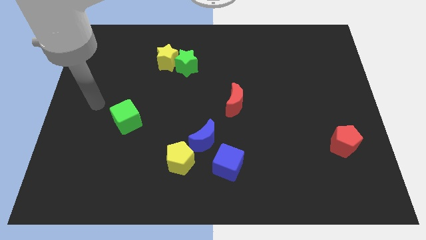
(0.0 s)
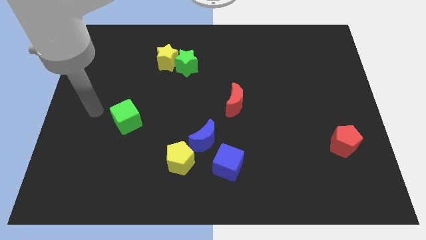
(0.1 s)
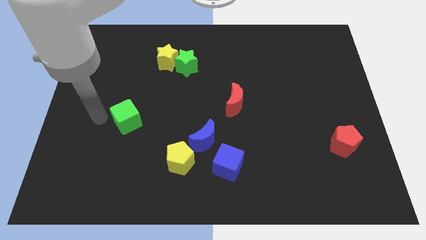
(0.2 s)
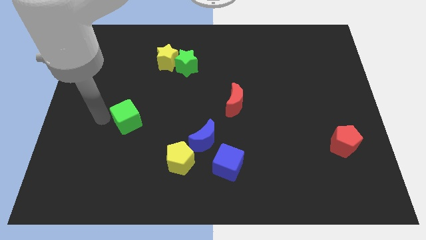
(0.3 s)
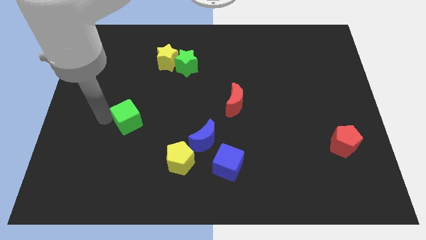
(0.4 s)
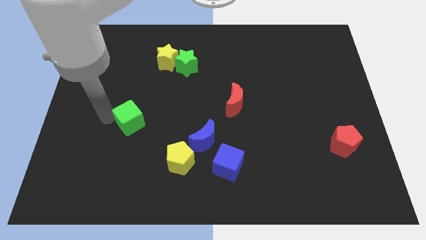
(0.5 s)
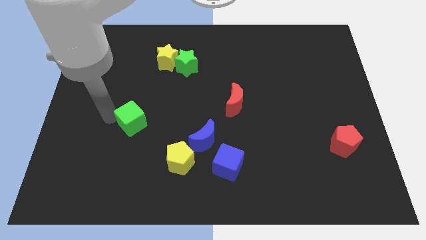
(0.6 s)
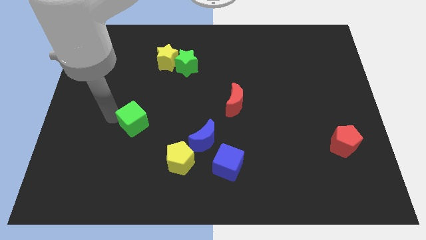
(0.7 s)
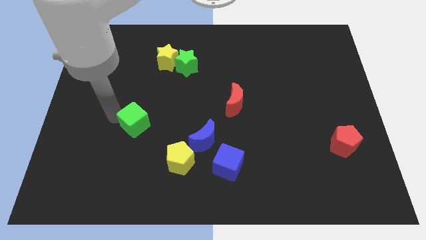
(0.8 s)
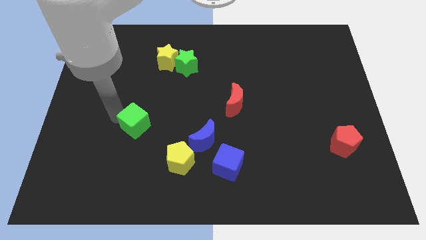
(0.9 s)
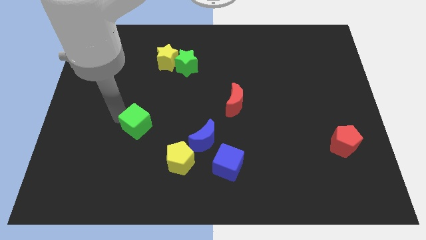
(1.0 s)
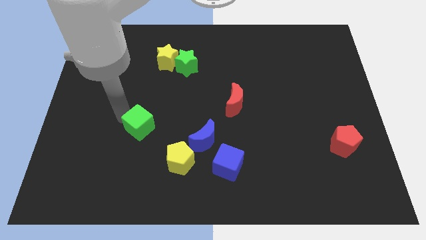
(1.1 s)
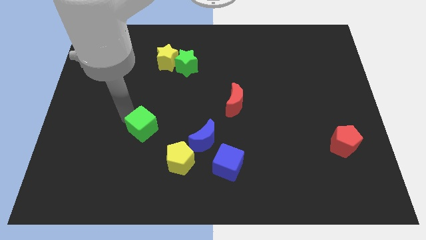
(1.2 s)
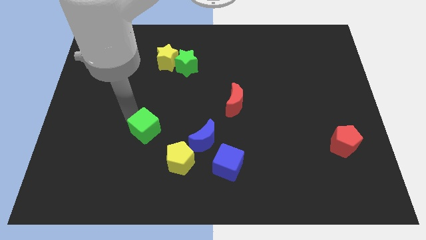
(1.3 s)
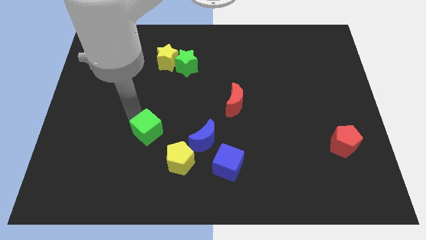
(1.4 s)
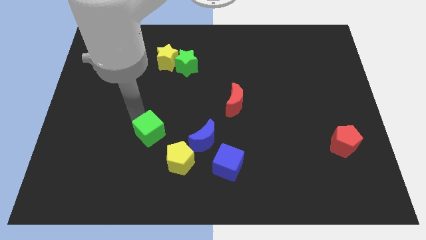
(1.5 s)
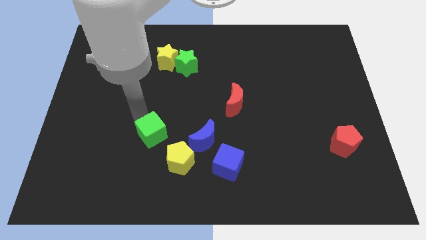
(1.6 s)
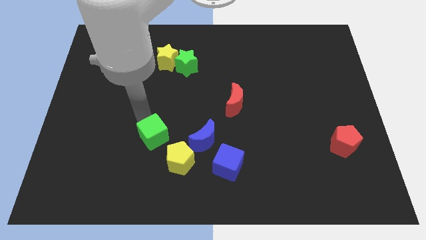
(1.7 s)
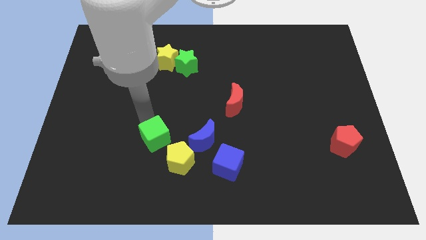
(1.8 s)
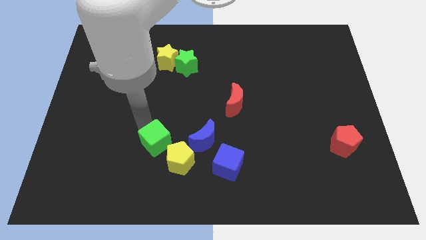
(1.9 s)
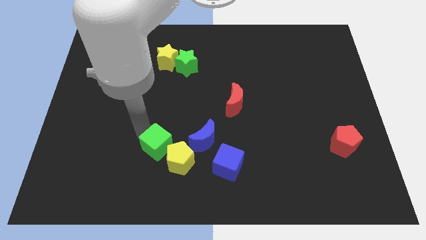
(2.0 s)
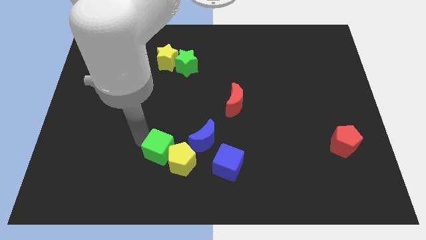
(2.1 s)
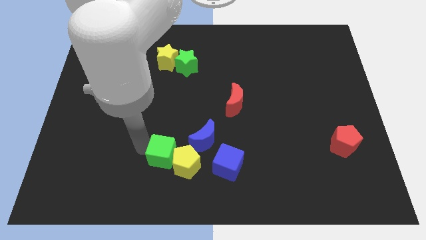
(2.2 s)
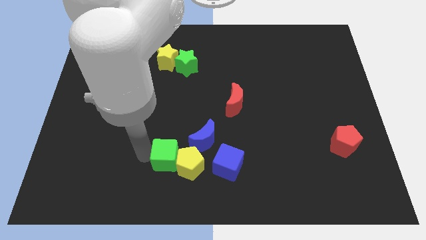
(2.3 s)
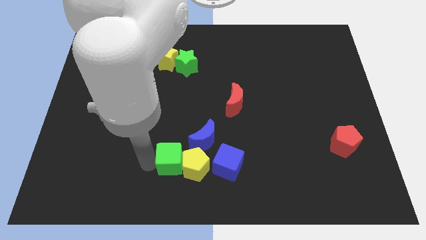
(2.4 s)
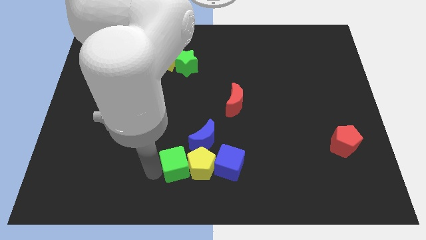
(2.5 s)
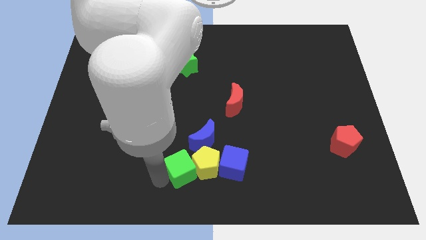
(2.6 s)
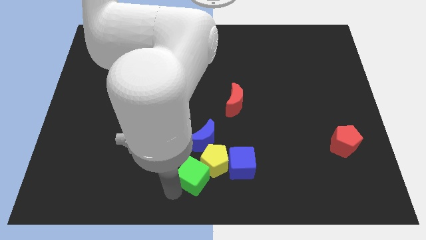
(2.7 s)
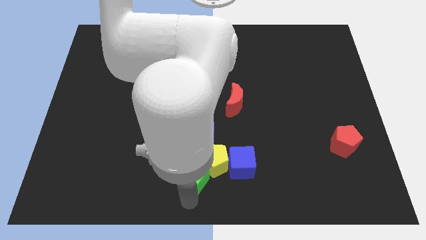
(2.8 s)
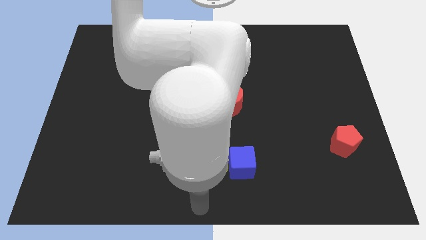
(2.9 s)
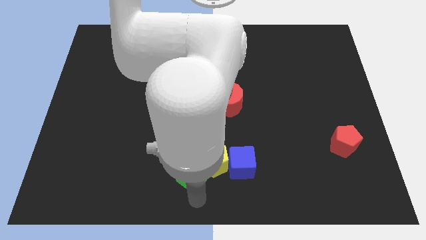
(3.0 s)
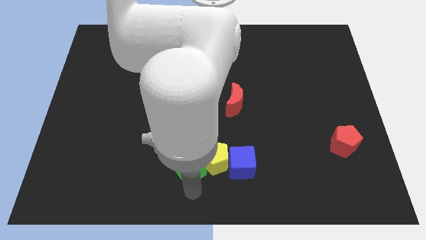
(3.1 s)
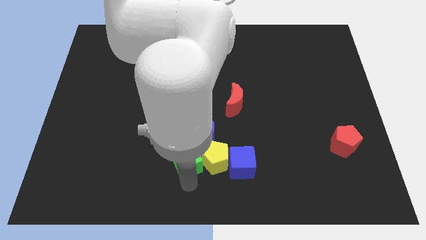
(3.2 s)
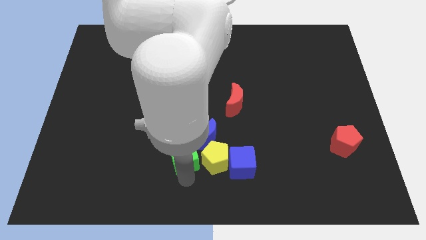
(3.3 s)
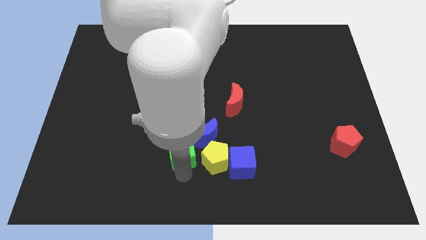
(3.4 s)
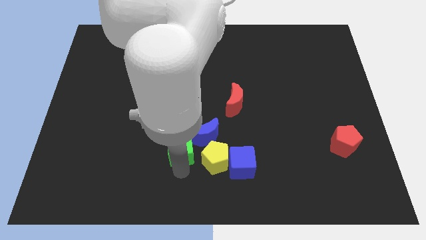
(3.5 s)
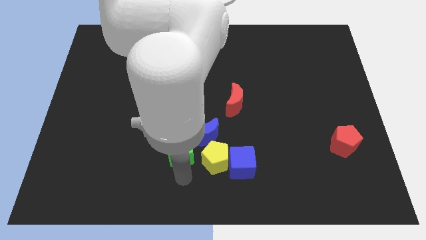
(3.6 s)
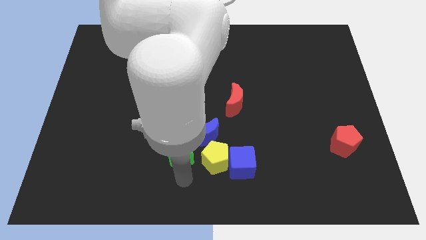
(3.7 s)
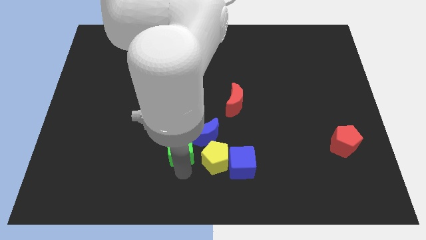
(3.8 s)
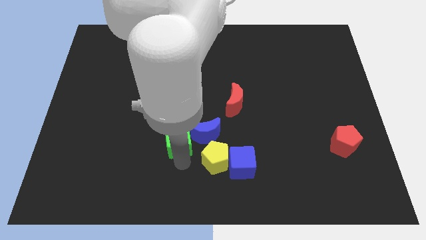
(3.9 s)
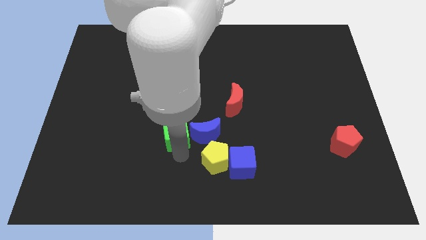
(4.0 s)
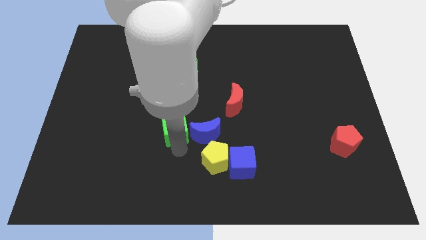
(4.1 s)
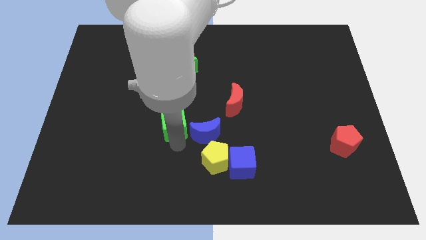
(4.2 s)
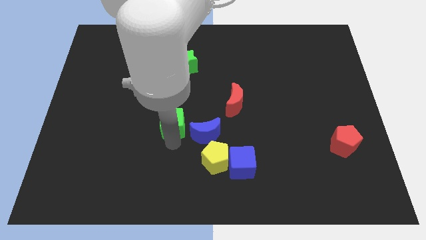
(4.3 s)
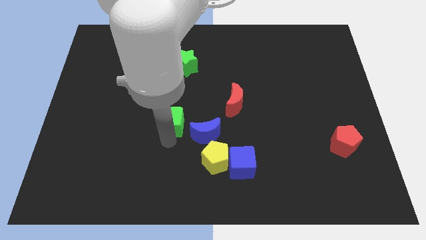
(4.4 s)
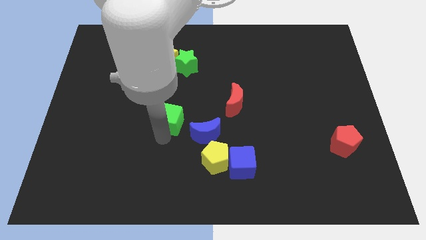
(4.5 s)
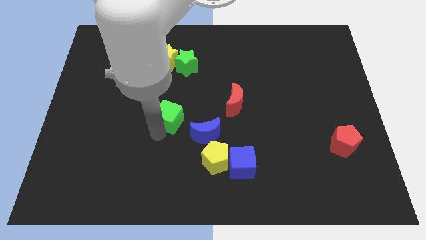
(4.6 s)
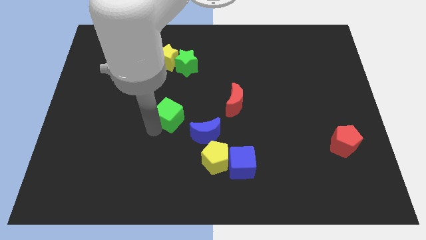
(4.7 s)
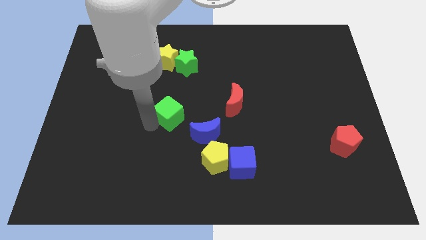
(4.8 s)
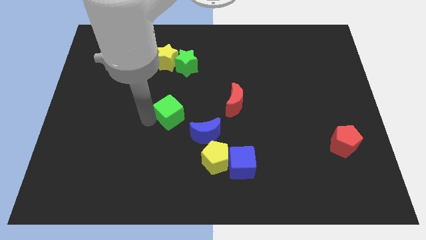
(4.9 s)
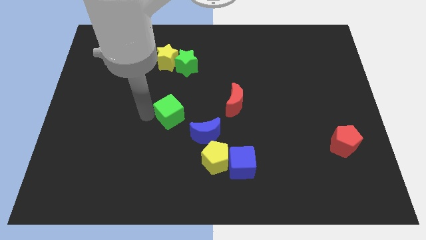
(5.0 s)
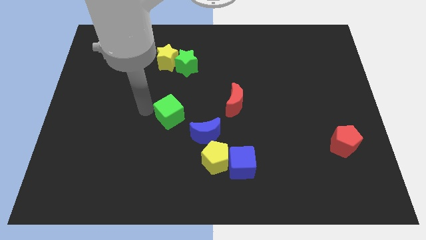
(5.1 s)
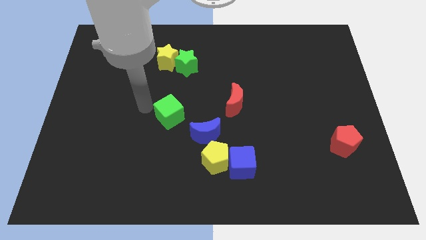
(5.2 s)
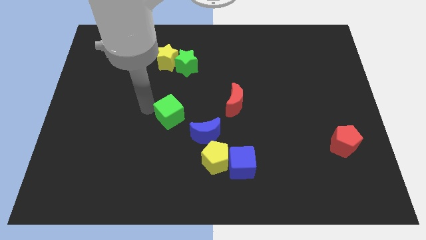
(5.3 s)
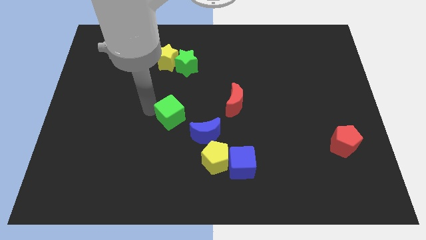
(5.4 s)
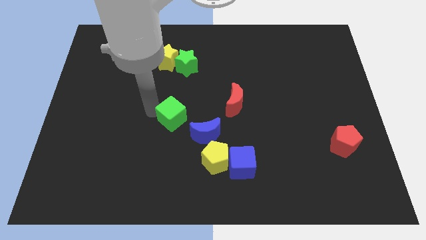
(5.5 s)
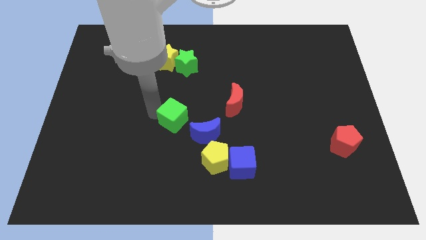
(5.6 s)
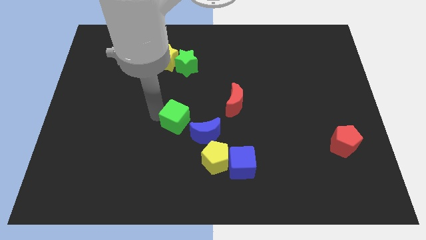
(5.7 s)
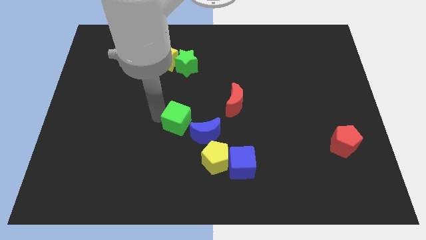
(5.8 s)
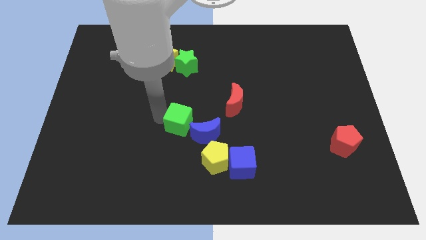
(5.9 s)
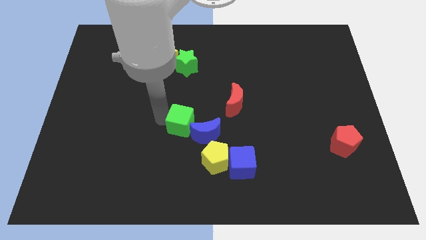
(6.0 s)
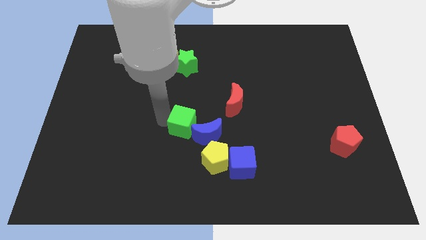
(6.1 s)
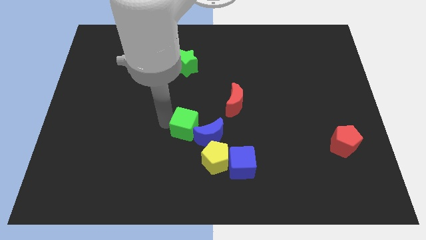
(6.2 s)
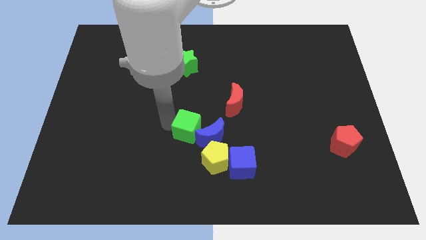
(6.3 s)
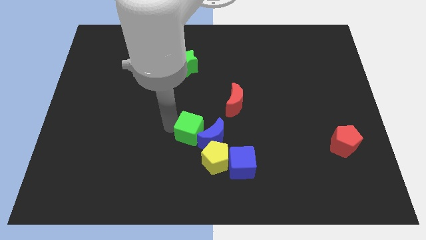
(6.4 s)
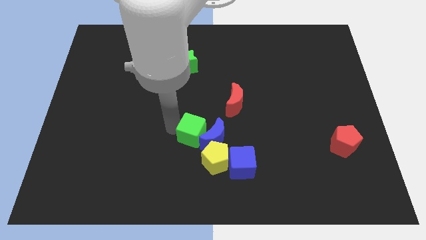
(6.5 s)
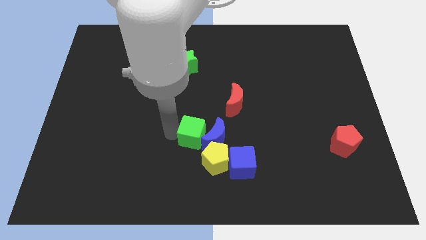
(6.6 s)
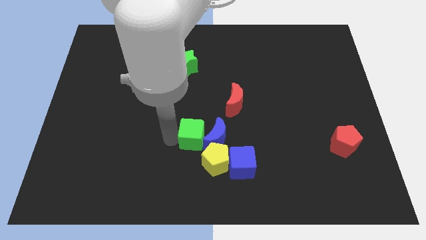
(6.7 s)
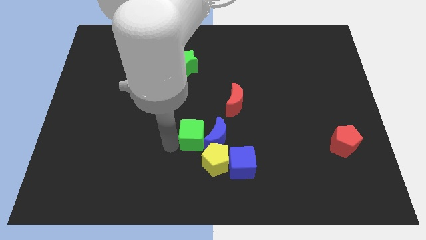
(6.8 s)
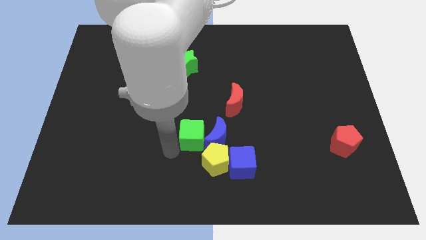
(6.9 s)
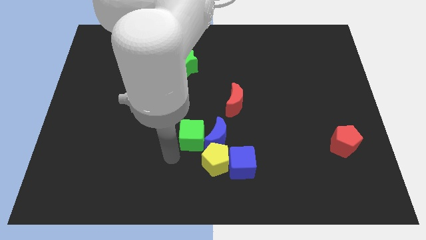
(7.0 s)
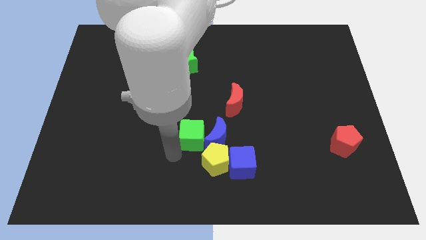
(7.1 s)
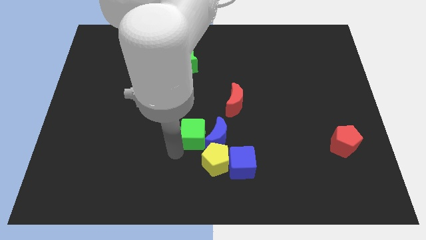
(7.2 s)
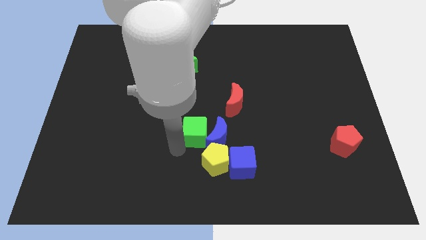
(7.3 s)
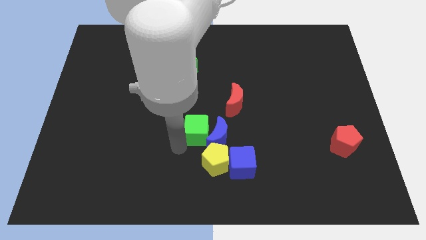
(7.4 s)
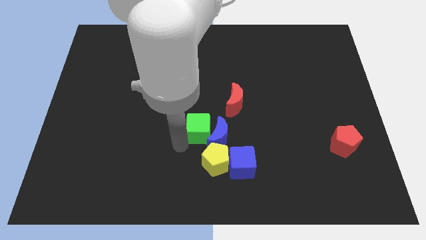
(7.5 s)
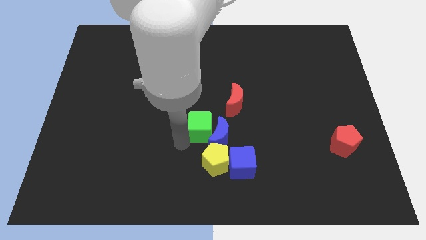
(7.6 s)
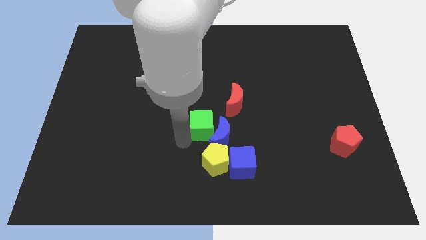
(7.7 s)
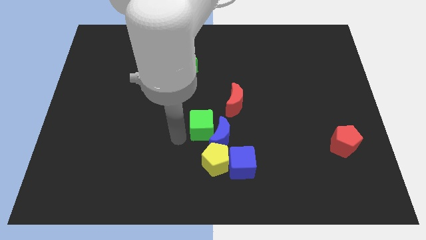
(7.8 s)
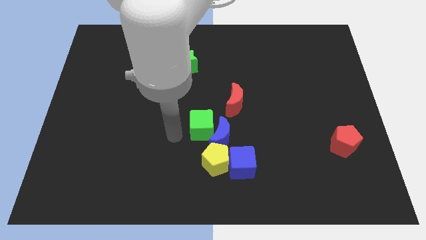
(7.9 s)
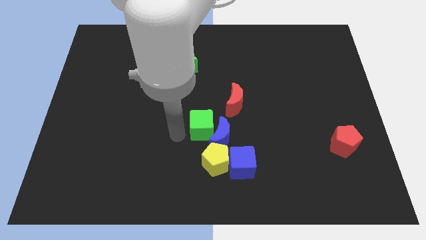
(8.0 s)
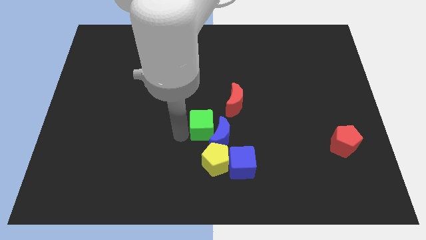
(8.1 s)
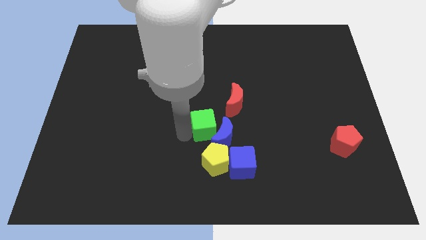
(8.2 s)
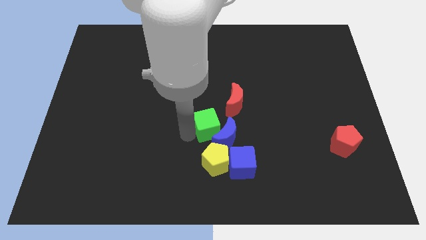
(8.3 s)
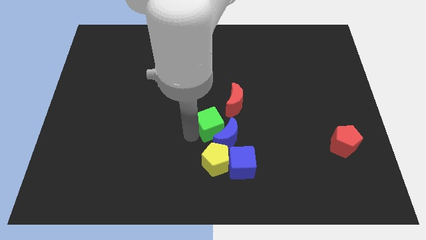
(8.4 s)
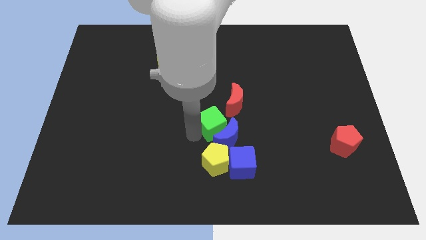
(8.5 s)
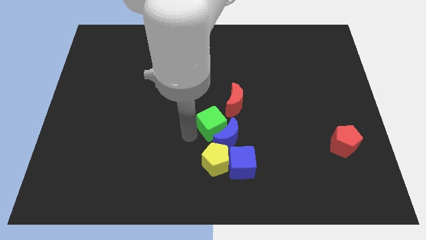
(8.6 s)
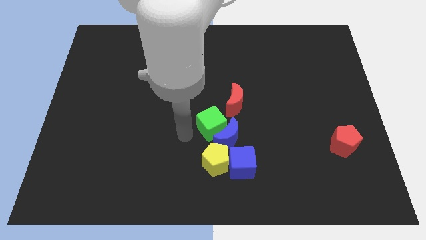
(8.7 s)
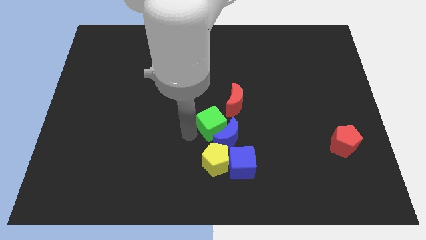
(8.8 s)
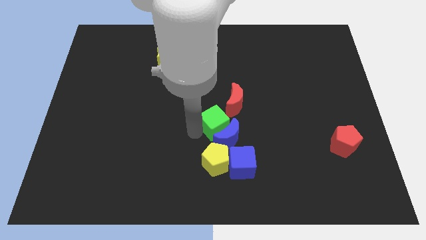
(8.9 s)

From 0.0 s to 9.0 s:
push the green cube right
